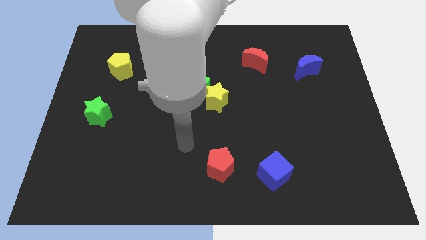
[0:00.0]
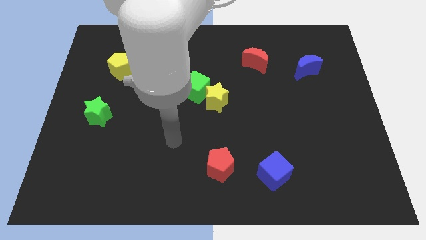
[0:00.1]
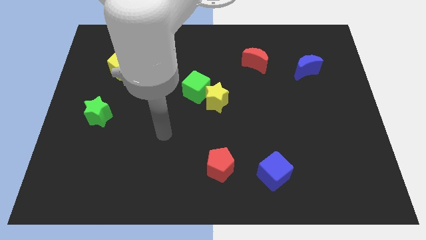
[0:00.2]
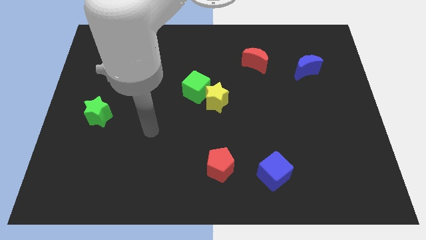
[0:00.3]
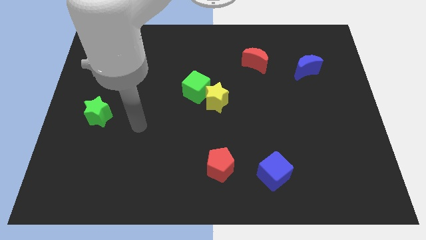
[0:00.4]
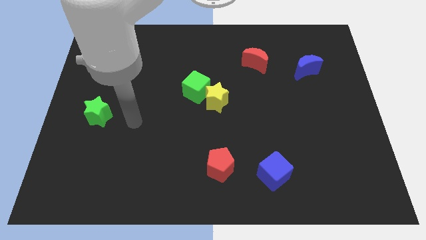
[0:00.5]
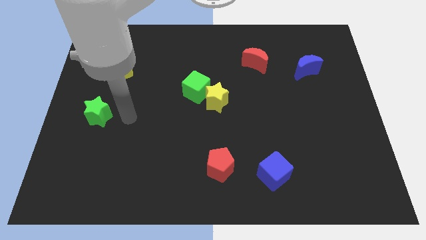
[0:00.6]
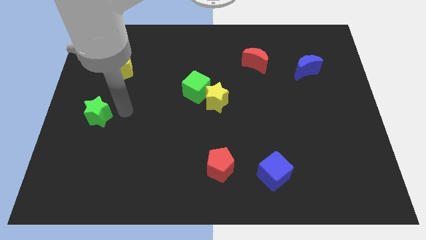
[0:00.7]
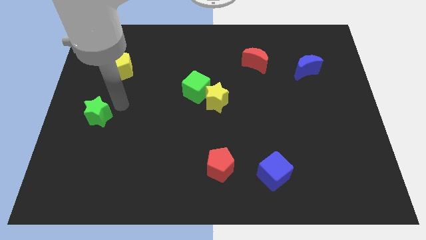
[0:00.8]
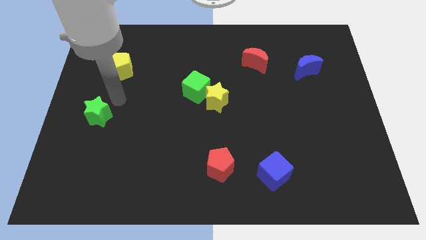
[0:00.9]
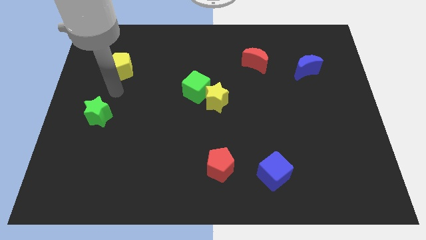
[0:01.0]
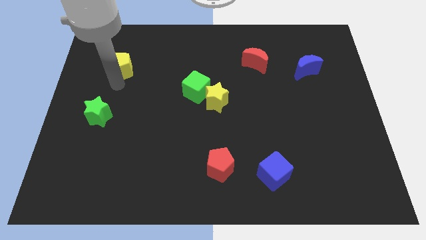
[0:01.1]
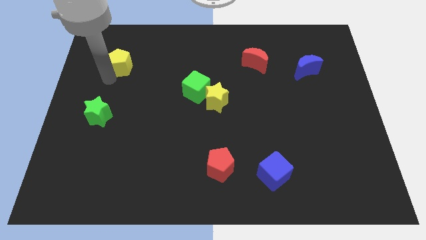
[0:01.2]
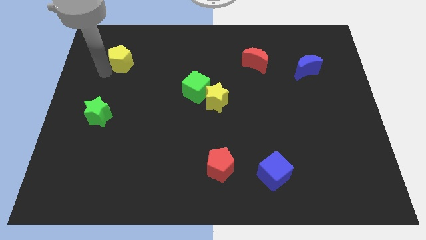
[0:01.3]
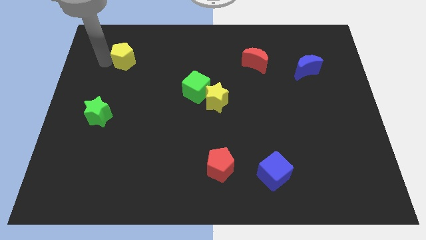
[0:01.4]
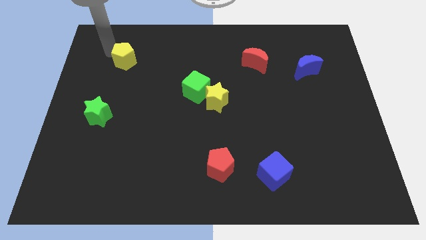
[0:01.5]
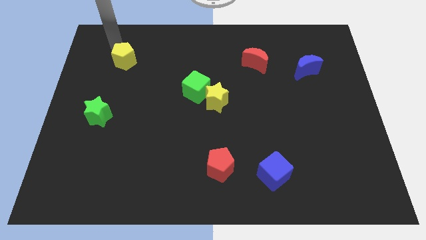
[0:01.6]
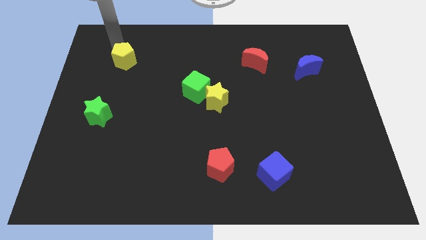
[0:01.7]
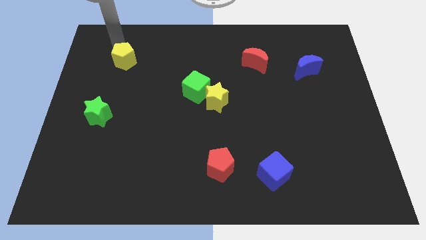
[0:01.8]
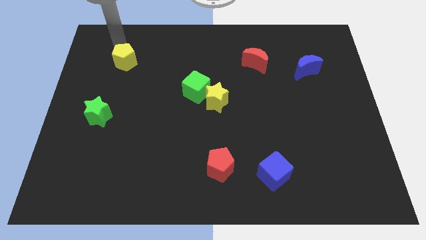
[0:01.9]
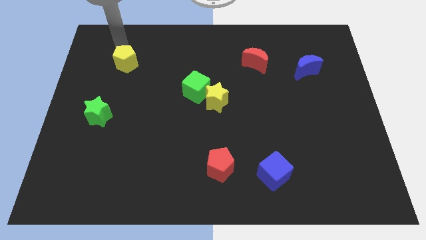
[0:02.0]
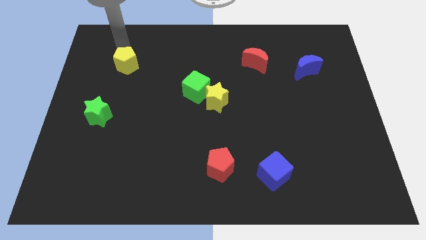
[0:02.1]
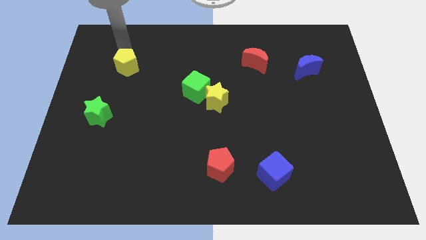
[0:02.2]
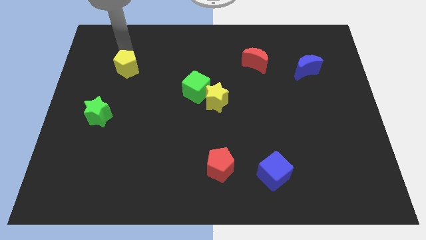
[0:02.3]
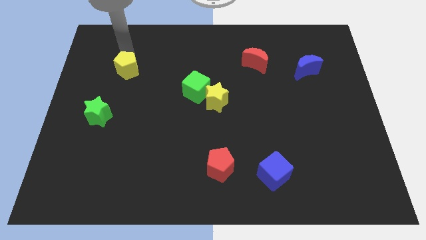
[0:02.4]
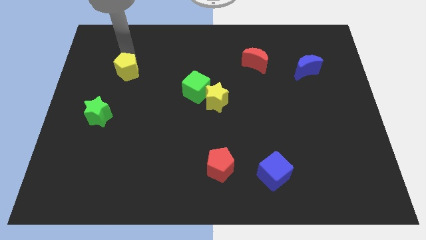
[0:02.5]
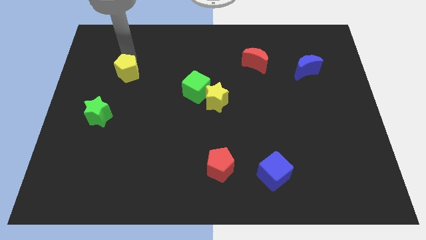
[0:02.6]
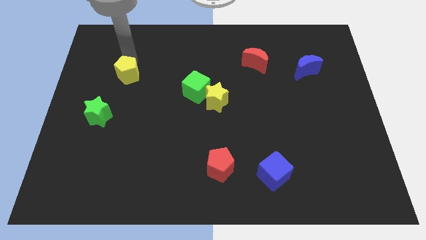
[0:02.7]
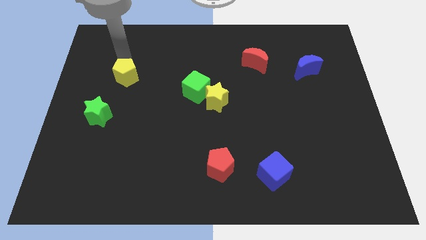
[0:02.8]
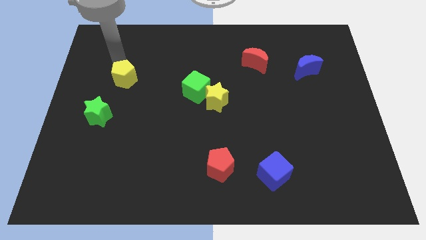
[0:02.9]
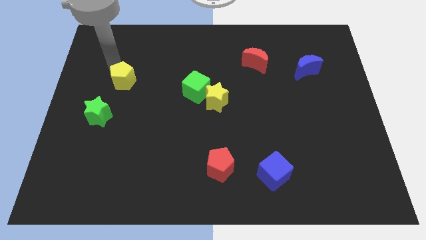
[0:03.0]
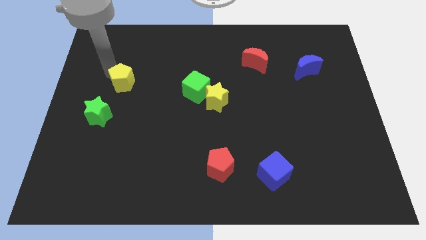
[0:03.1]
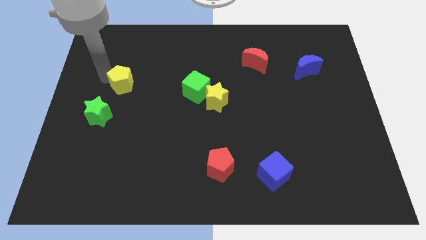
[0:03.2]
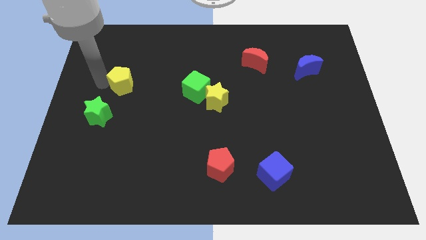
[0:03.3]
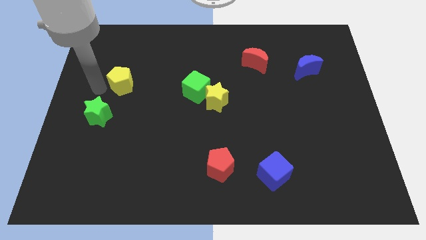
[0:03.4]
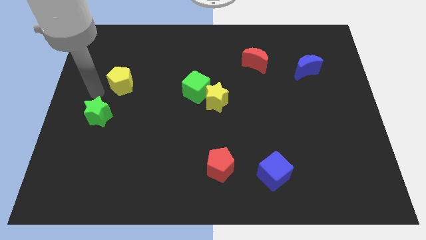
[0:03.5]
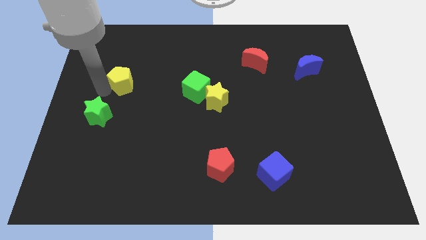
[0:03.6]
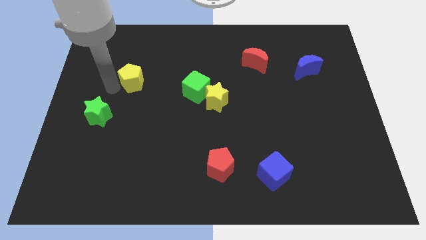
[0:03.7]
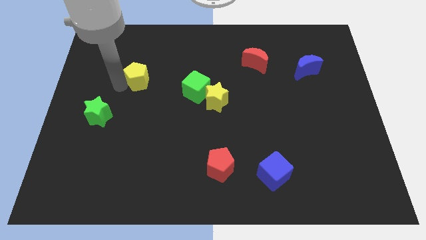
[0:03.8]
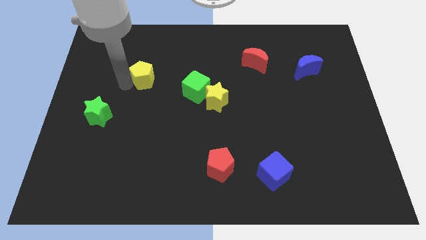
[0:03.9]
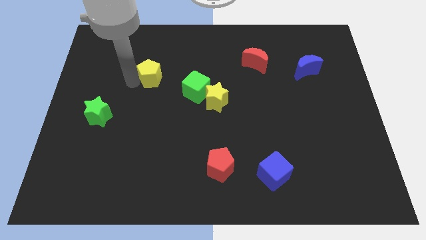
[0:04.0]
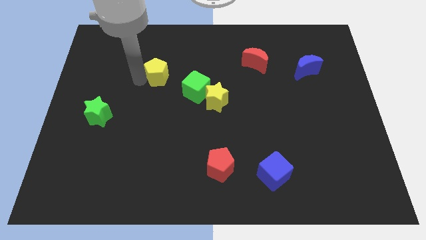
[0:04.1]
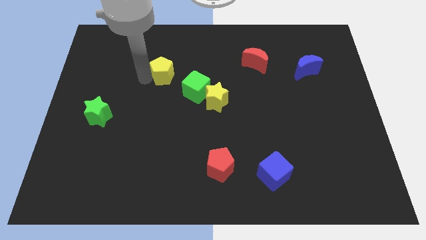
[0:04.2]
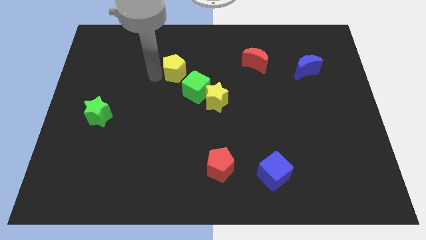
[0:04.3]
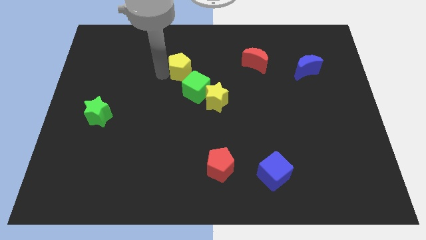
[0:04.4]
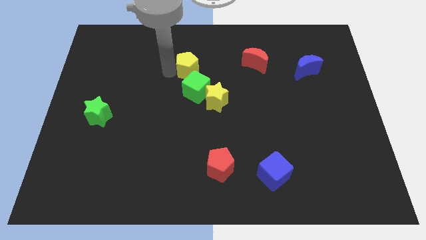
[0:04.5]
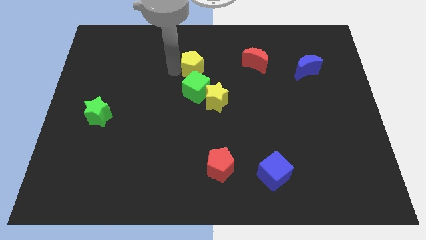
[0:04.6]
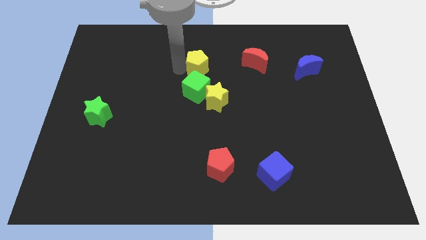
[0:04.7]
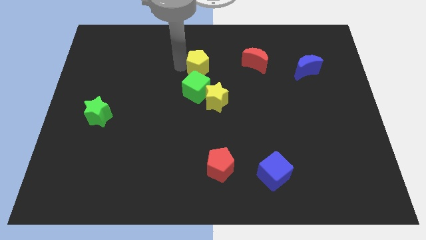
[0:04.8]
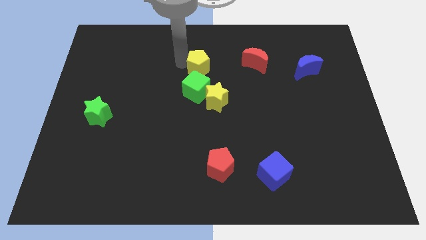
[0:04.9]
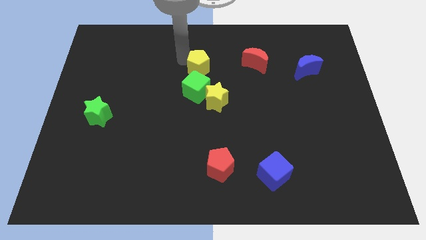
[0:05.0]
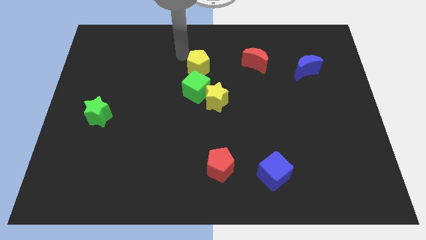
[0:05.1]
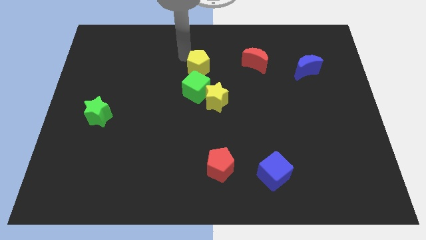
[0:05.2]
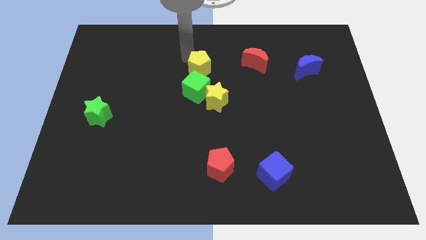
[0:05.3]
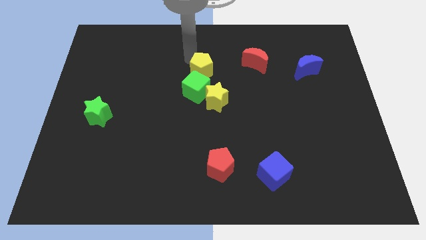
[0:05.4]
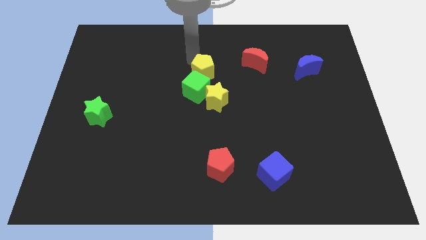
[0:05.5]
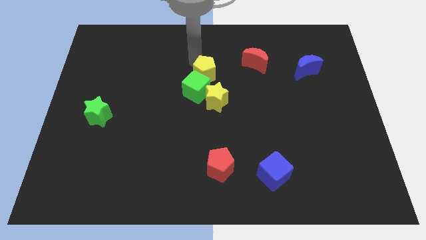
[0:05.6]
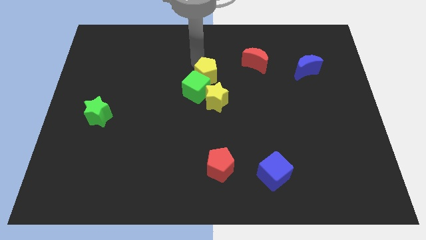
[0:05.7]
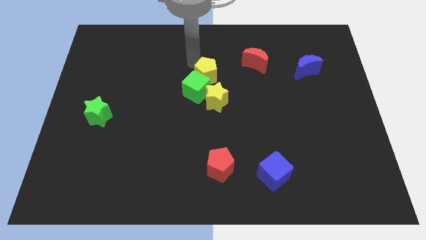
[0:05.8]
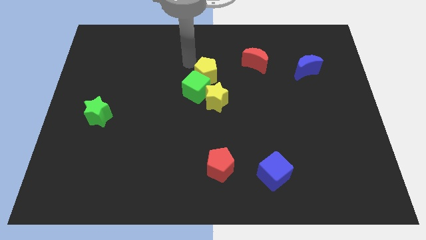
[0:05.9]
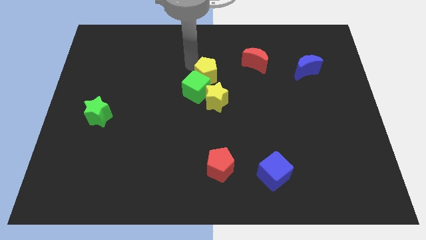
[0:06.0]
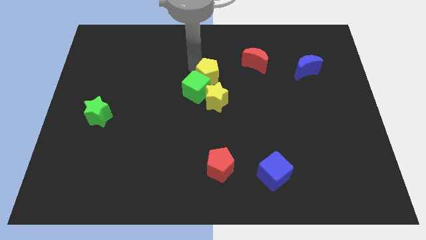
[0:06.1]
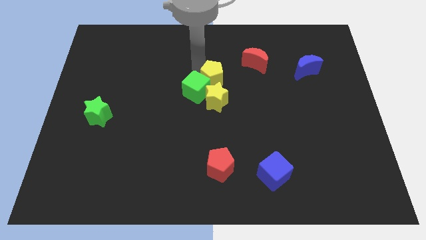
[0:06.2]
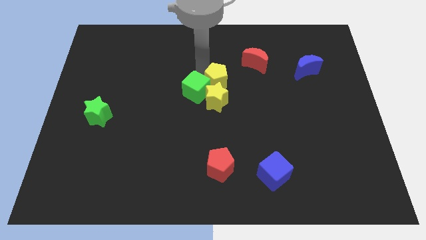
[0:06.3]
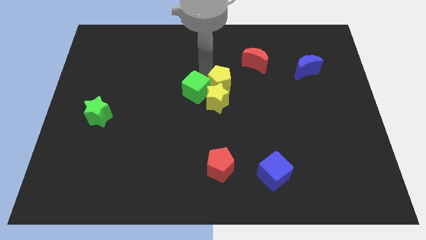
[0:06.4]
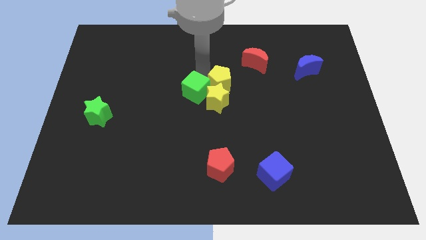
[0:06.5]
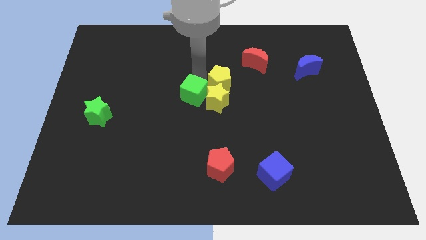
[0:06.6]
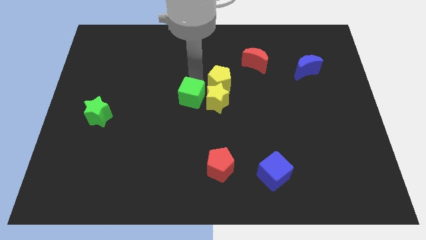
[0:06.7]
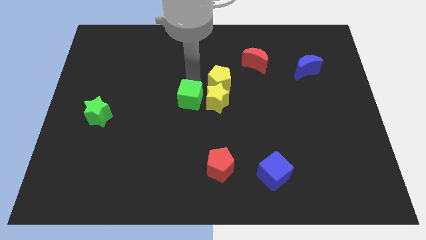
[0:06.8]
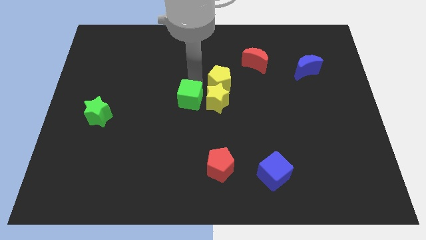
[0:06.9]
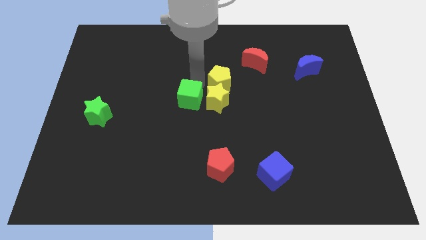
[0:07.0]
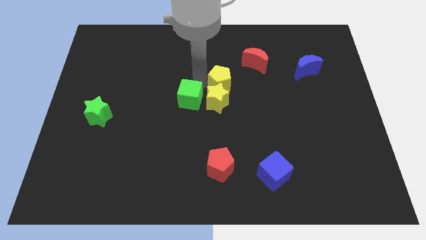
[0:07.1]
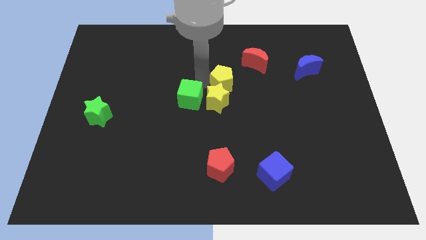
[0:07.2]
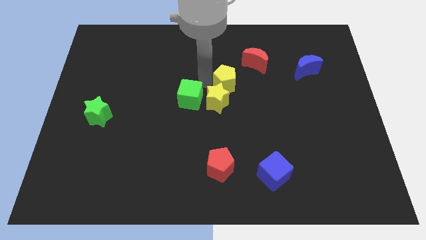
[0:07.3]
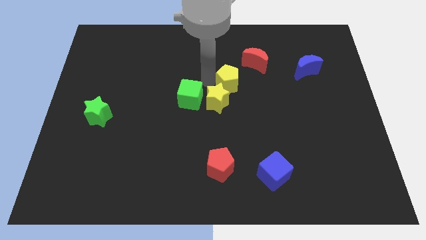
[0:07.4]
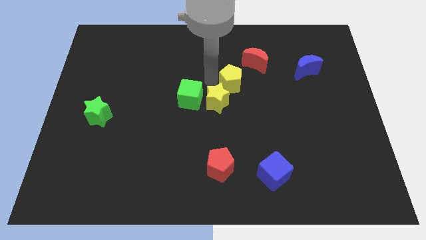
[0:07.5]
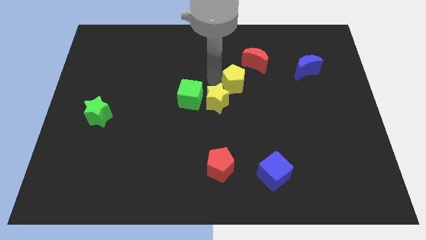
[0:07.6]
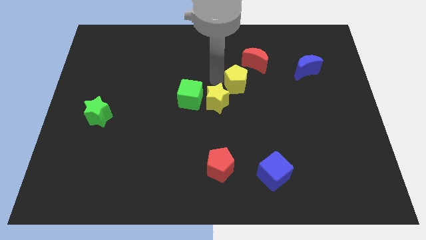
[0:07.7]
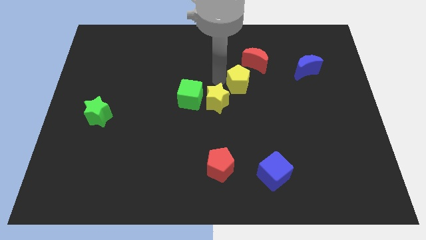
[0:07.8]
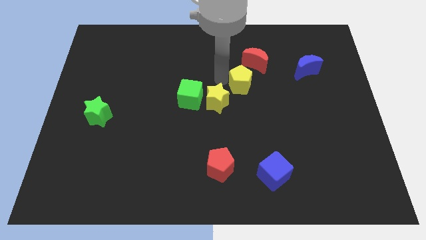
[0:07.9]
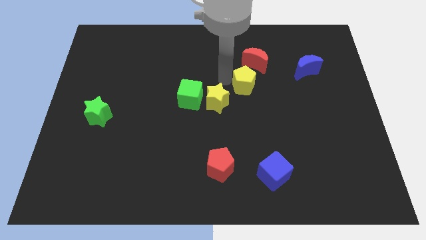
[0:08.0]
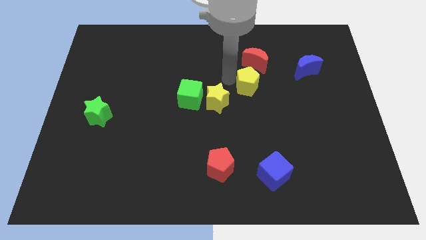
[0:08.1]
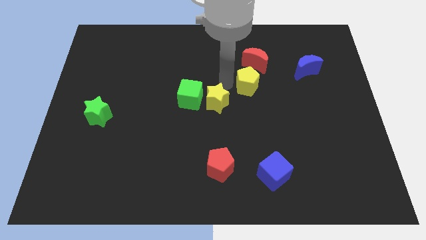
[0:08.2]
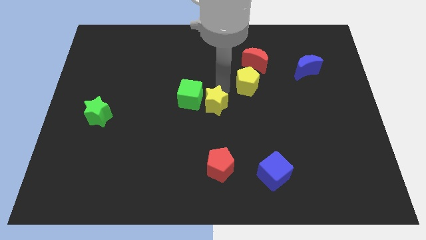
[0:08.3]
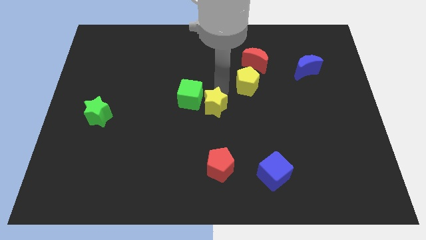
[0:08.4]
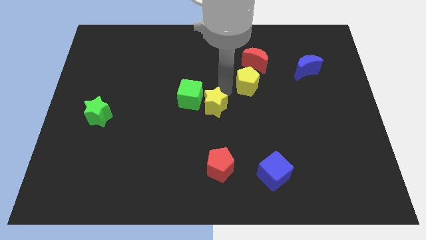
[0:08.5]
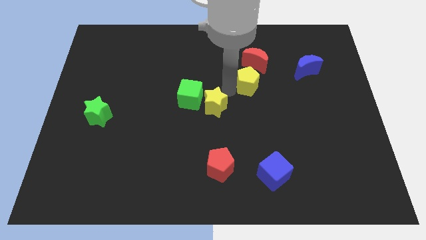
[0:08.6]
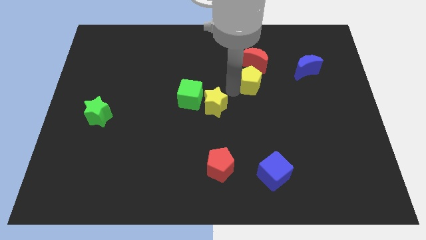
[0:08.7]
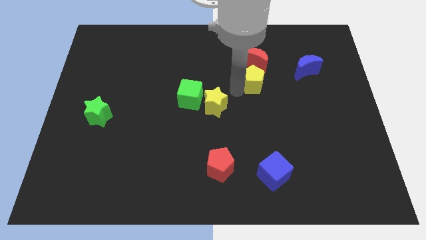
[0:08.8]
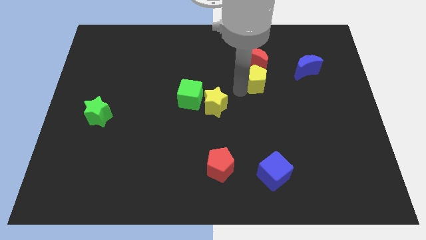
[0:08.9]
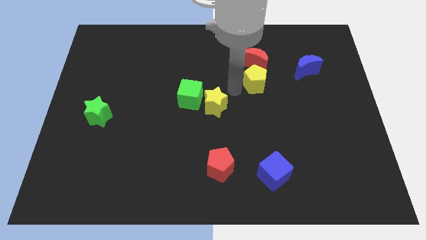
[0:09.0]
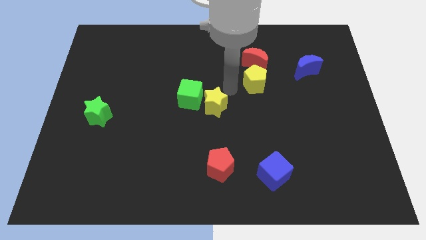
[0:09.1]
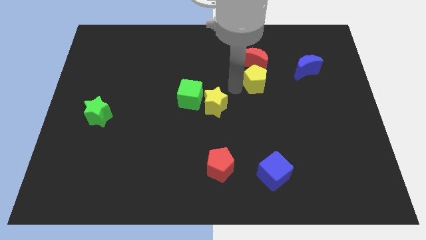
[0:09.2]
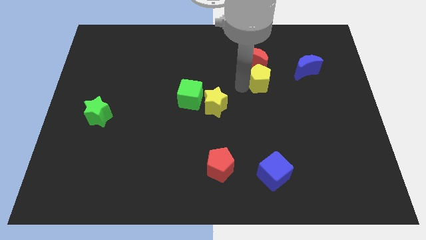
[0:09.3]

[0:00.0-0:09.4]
slide the yellow pentagon diagonally down and to the right of the red moon
